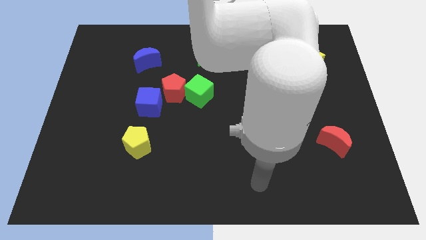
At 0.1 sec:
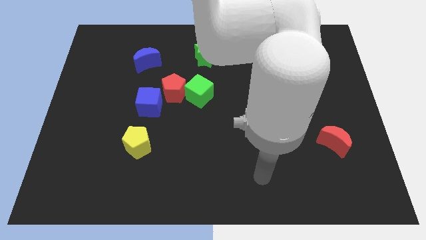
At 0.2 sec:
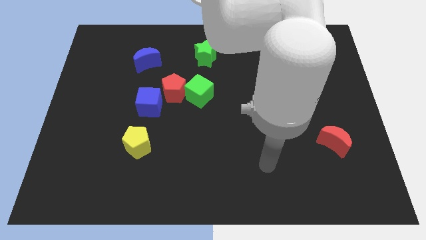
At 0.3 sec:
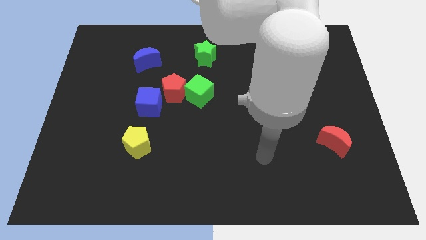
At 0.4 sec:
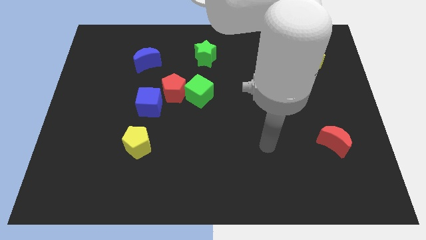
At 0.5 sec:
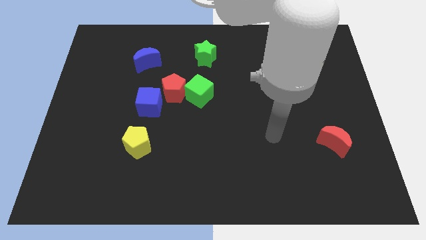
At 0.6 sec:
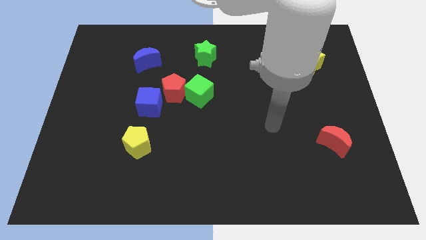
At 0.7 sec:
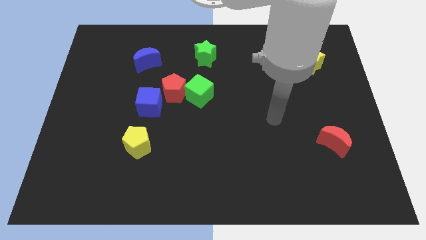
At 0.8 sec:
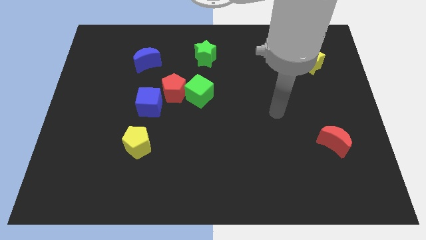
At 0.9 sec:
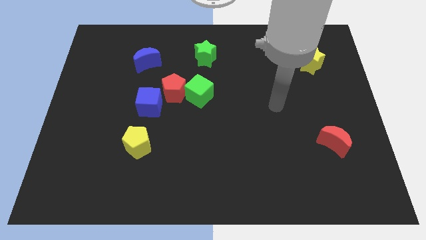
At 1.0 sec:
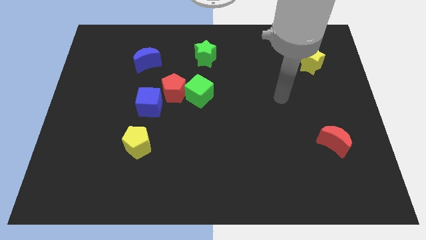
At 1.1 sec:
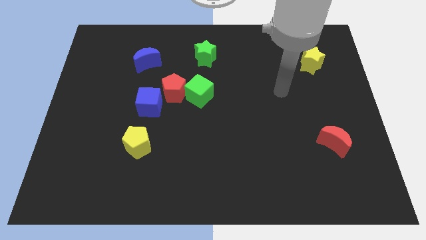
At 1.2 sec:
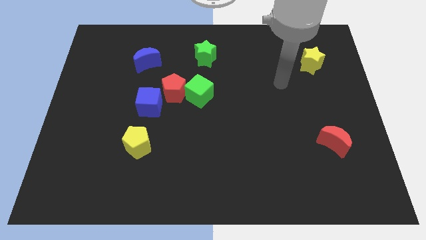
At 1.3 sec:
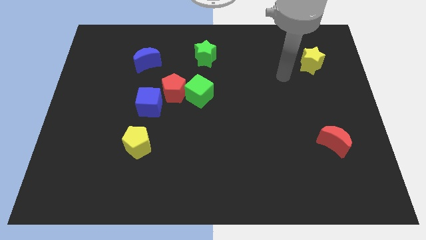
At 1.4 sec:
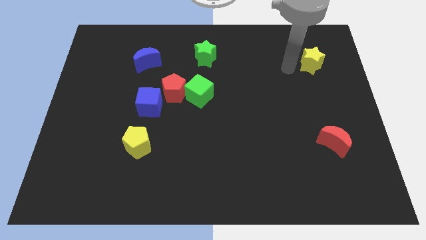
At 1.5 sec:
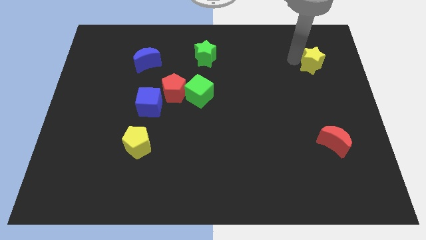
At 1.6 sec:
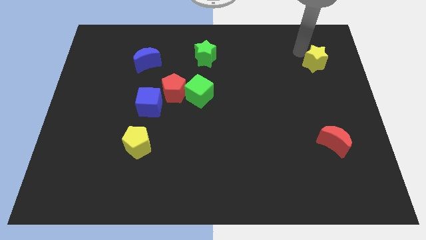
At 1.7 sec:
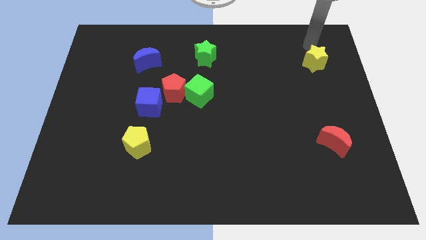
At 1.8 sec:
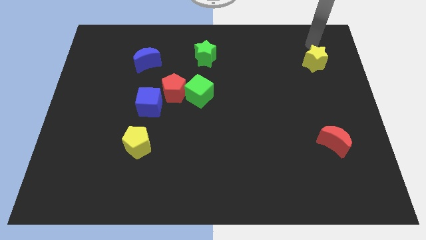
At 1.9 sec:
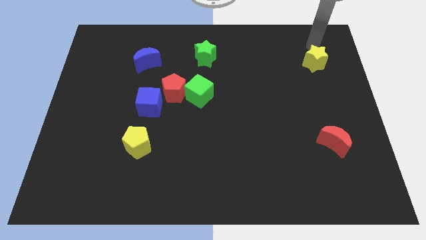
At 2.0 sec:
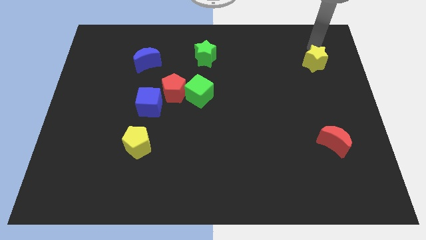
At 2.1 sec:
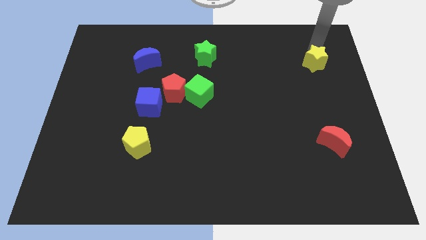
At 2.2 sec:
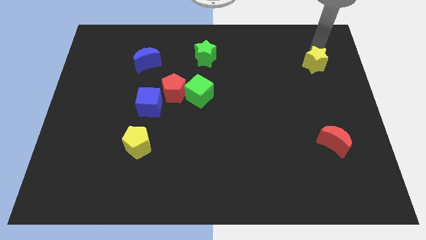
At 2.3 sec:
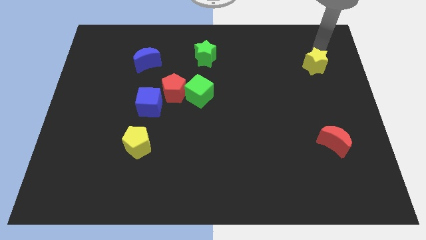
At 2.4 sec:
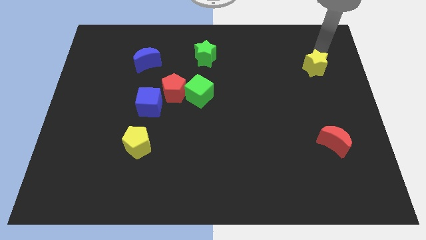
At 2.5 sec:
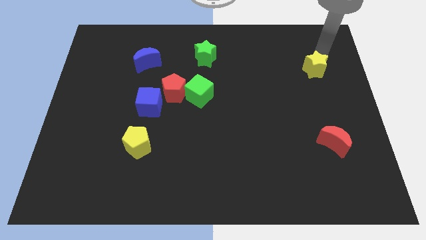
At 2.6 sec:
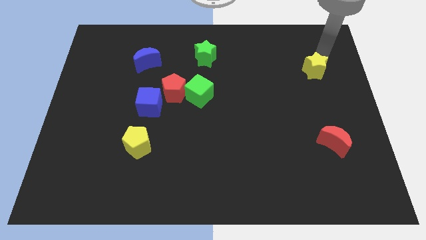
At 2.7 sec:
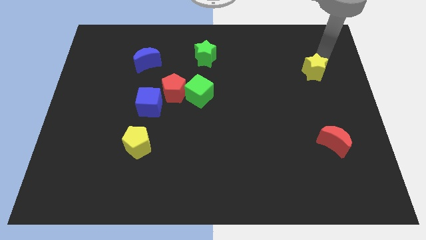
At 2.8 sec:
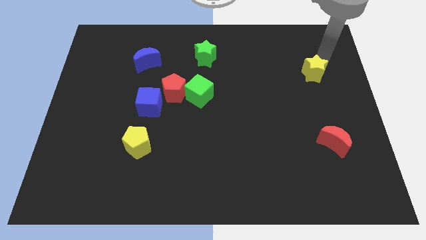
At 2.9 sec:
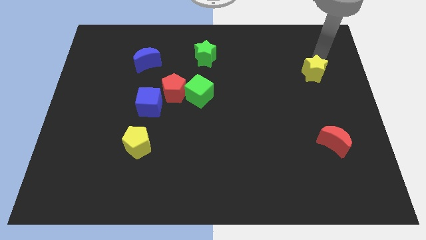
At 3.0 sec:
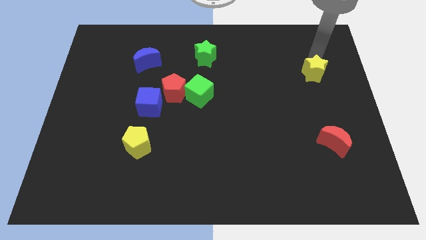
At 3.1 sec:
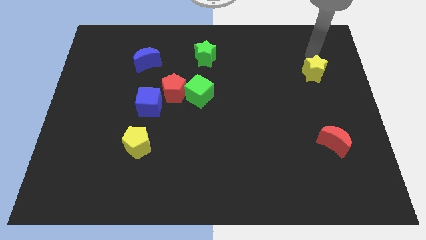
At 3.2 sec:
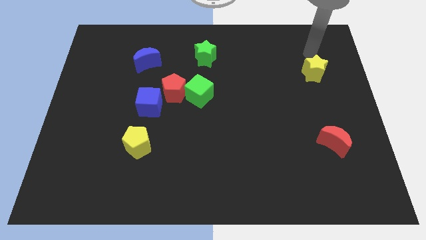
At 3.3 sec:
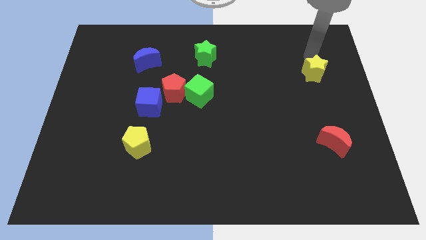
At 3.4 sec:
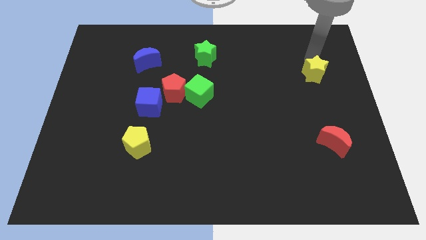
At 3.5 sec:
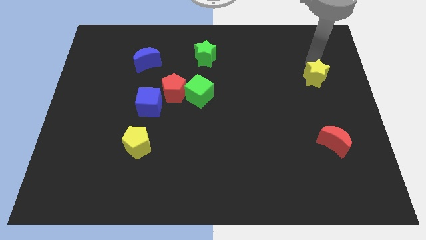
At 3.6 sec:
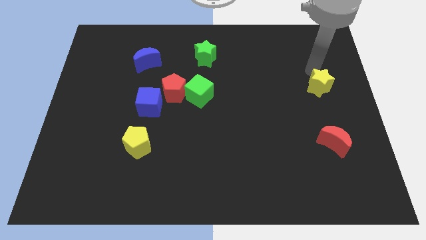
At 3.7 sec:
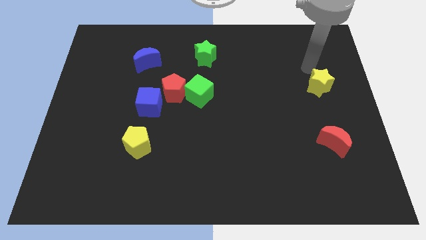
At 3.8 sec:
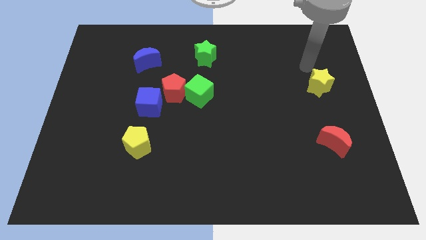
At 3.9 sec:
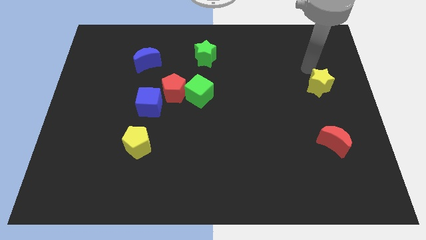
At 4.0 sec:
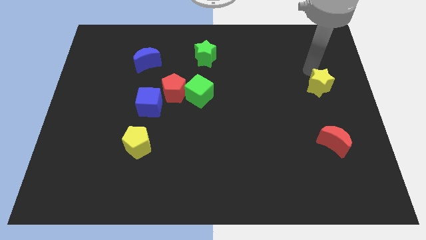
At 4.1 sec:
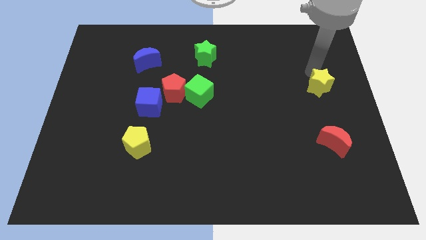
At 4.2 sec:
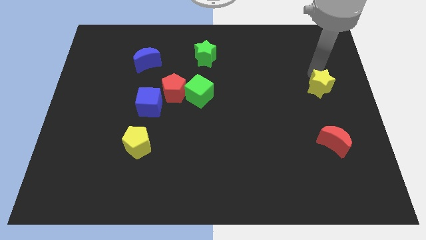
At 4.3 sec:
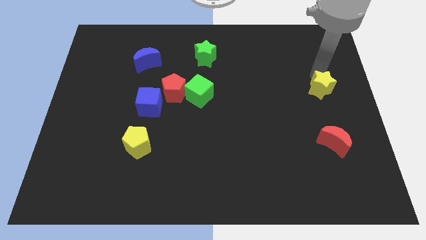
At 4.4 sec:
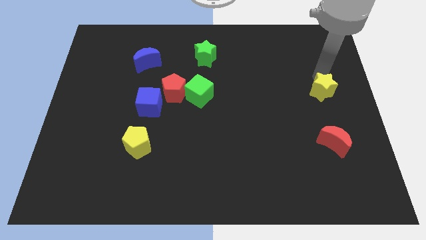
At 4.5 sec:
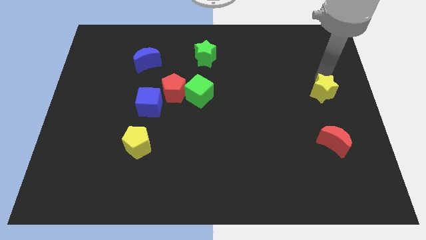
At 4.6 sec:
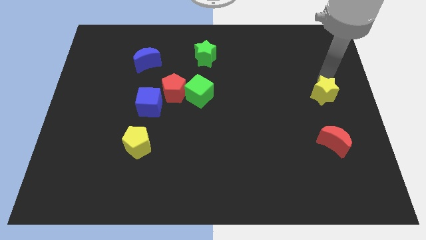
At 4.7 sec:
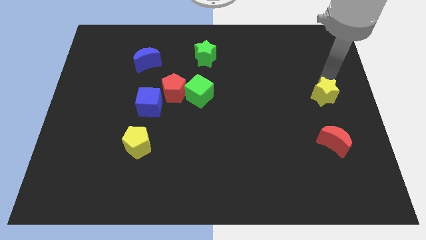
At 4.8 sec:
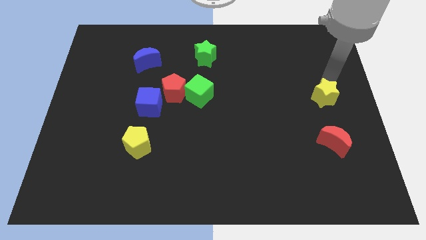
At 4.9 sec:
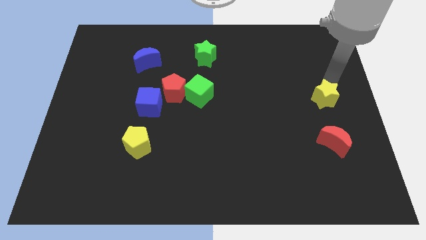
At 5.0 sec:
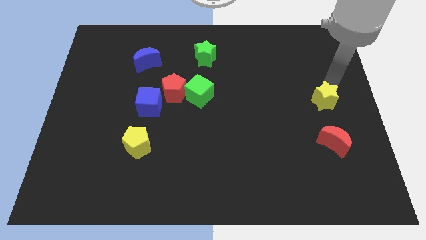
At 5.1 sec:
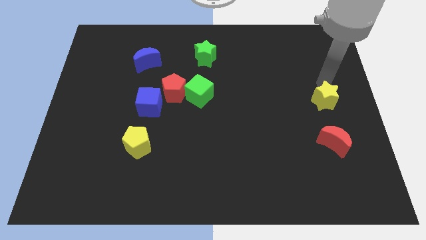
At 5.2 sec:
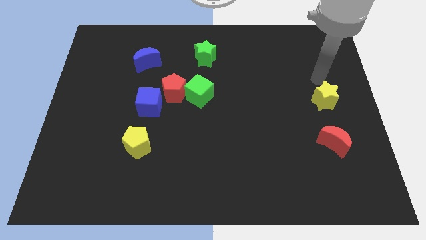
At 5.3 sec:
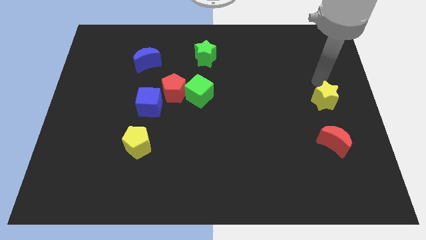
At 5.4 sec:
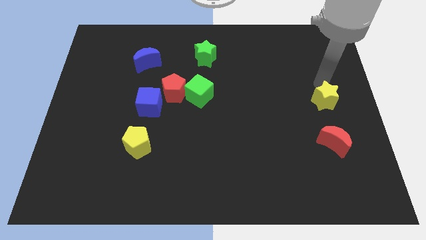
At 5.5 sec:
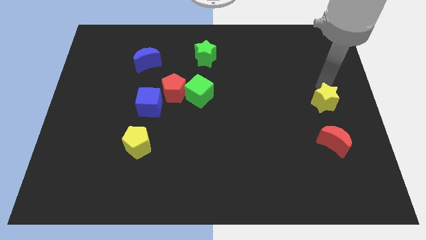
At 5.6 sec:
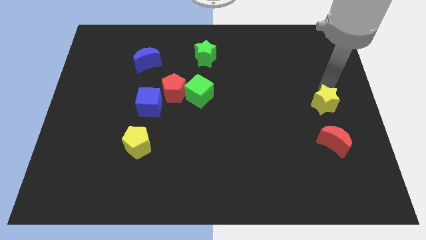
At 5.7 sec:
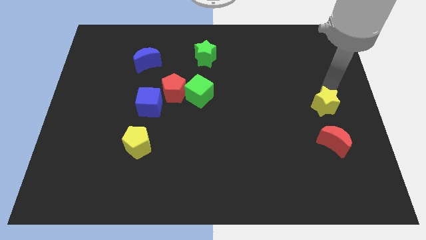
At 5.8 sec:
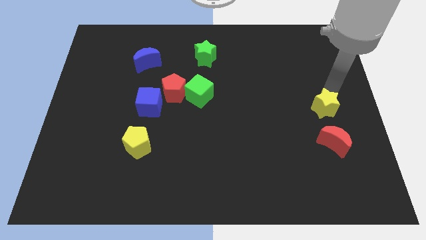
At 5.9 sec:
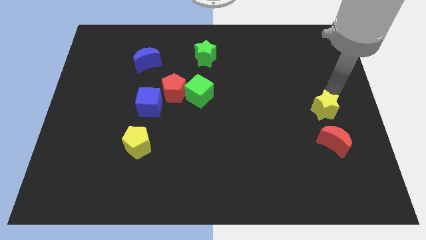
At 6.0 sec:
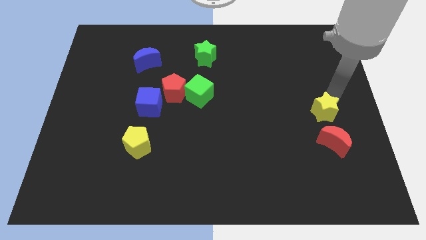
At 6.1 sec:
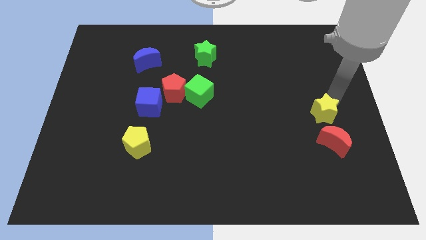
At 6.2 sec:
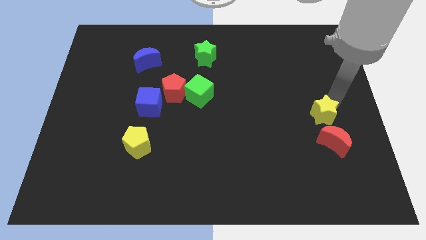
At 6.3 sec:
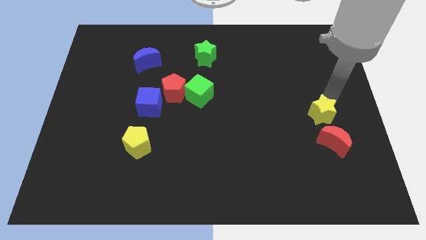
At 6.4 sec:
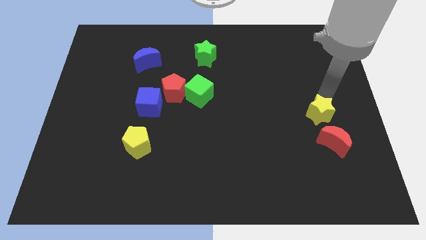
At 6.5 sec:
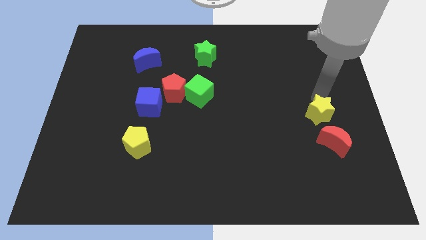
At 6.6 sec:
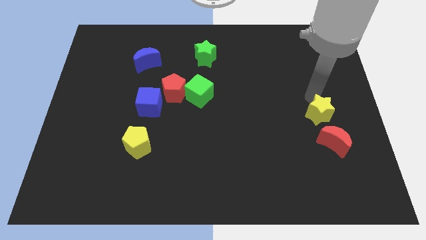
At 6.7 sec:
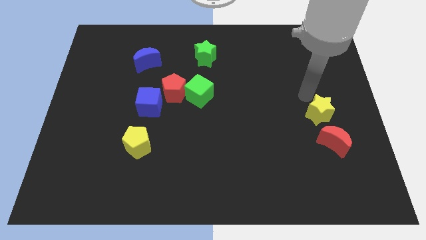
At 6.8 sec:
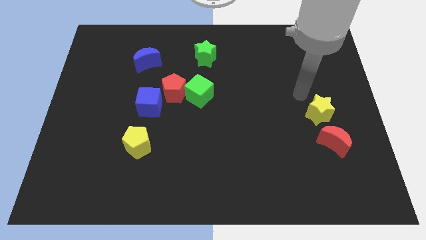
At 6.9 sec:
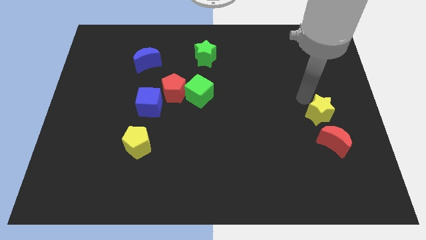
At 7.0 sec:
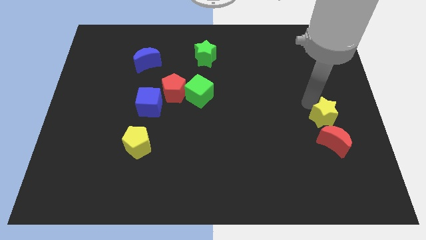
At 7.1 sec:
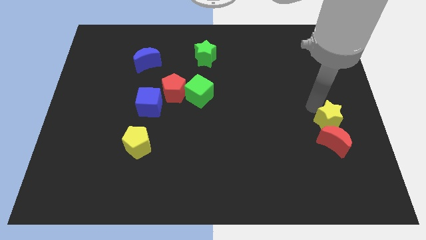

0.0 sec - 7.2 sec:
push the yellow star towards the red moon

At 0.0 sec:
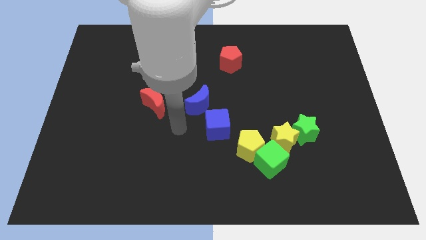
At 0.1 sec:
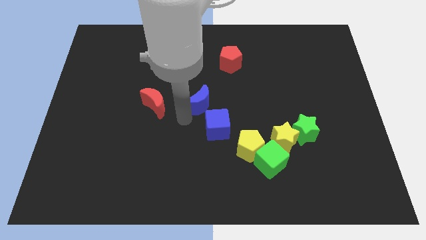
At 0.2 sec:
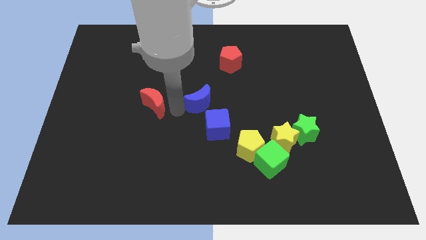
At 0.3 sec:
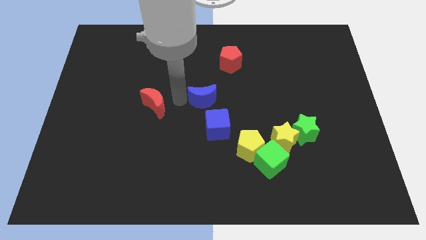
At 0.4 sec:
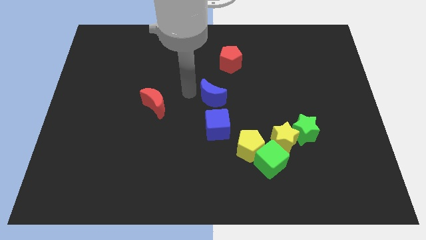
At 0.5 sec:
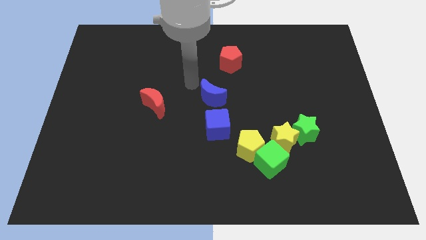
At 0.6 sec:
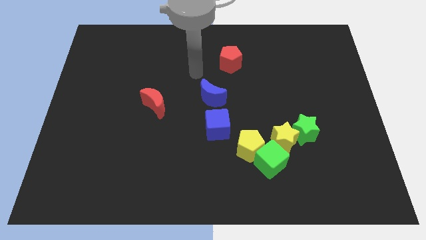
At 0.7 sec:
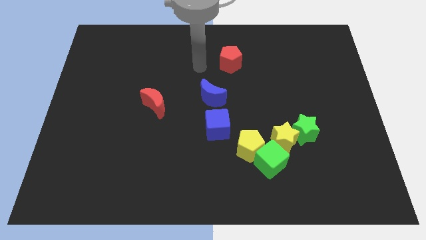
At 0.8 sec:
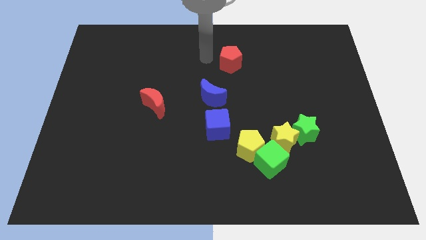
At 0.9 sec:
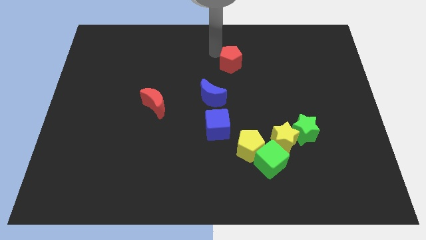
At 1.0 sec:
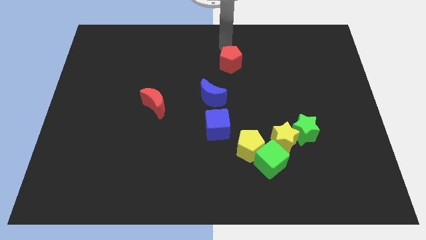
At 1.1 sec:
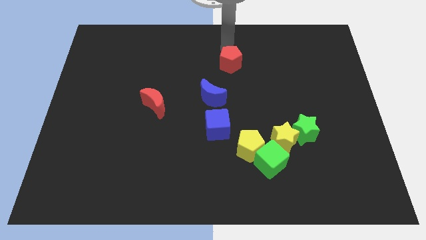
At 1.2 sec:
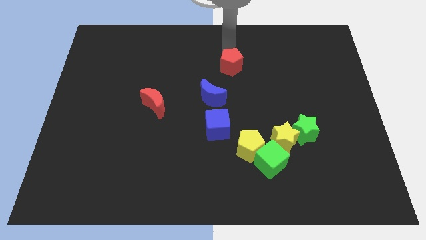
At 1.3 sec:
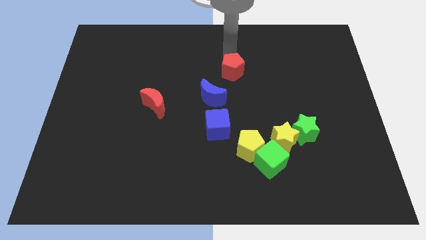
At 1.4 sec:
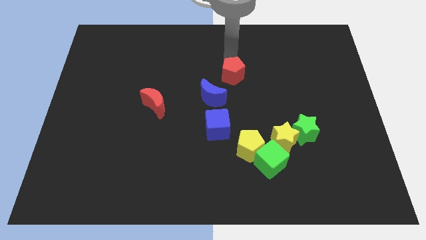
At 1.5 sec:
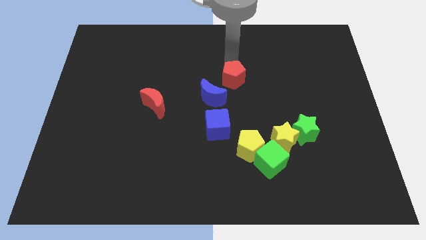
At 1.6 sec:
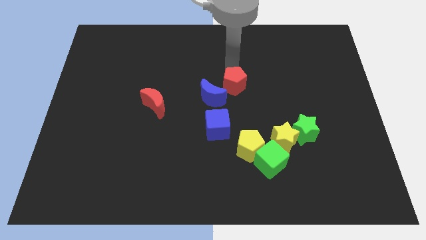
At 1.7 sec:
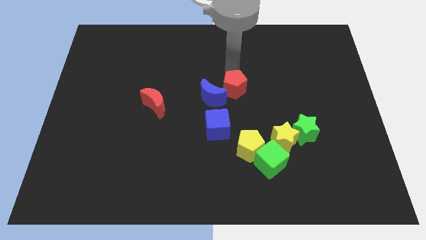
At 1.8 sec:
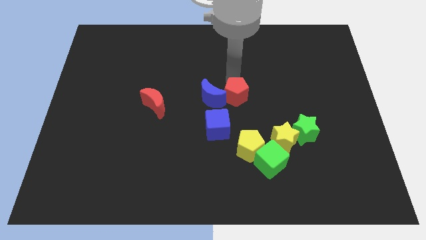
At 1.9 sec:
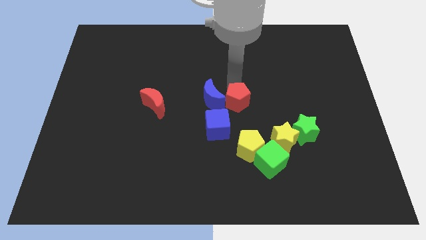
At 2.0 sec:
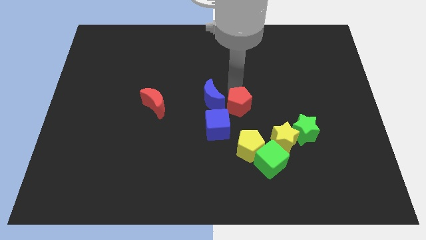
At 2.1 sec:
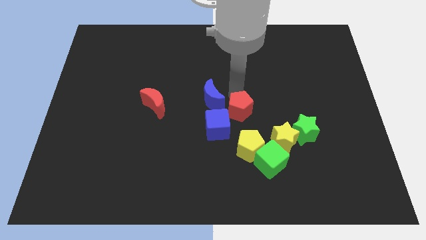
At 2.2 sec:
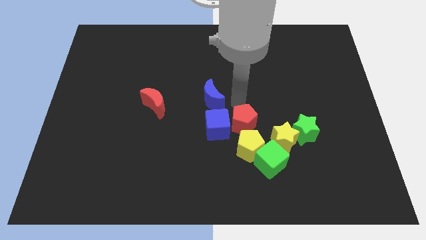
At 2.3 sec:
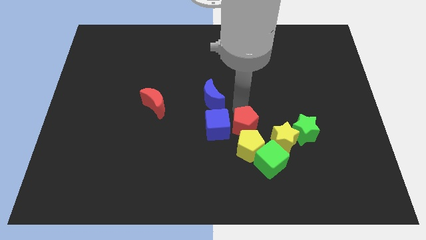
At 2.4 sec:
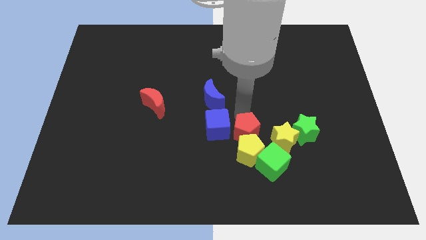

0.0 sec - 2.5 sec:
move the red pentagon towards the yellow pentagon
